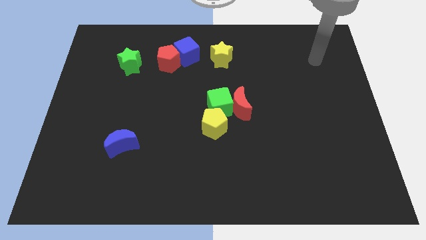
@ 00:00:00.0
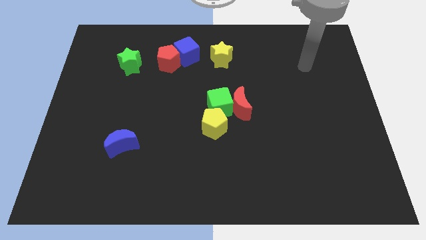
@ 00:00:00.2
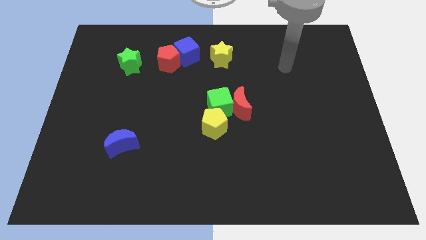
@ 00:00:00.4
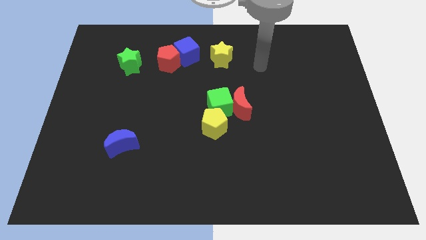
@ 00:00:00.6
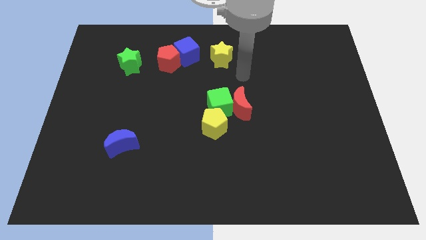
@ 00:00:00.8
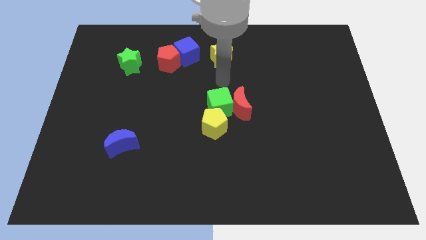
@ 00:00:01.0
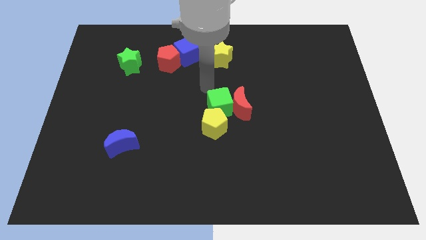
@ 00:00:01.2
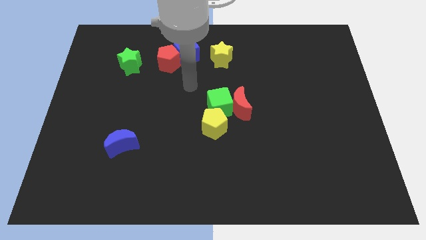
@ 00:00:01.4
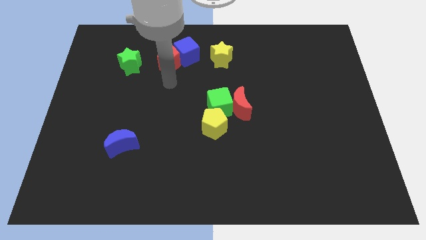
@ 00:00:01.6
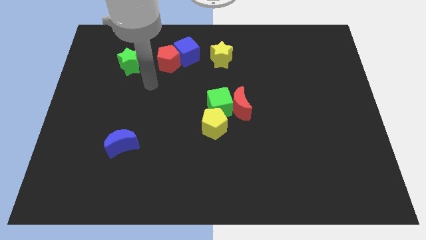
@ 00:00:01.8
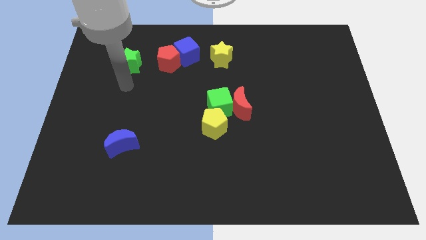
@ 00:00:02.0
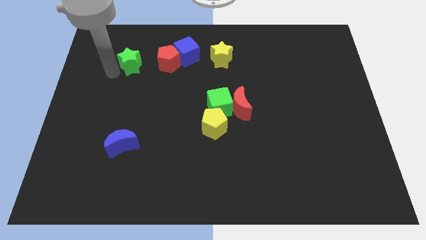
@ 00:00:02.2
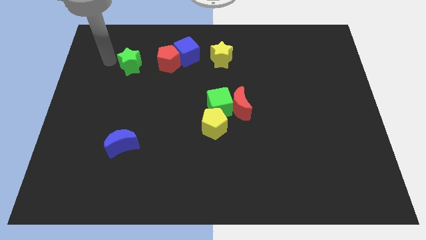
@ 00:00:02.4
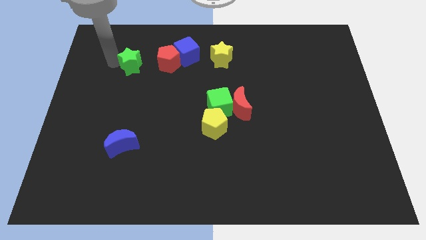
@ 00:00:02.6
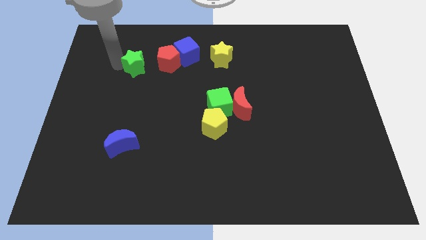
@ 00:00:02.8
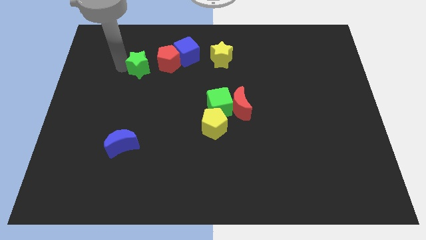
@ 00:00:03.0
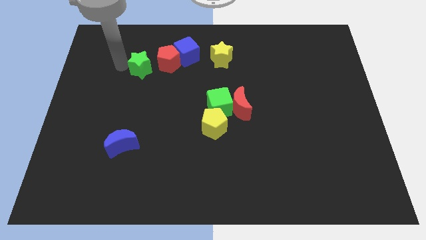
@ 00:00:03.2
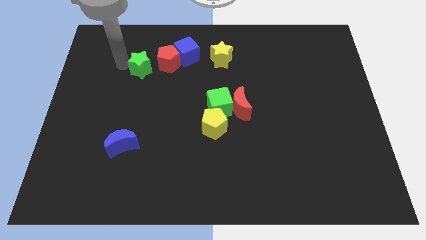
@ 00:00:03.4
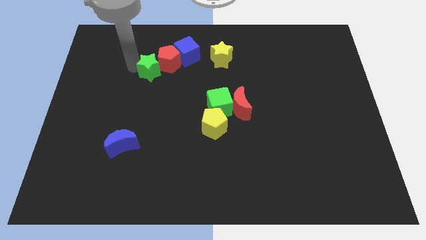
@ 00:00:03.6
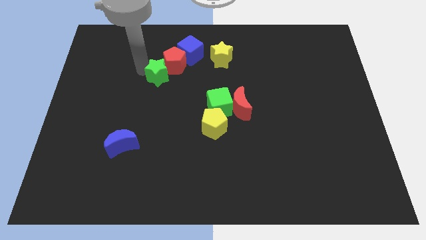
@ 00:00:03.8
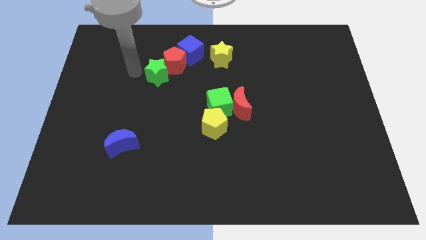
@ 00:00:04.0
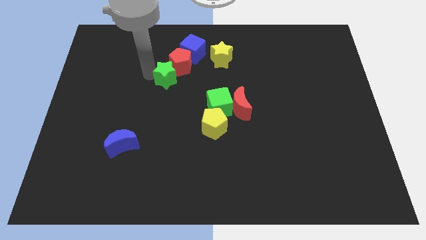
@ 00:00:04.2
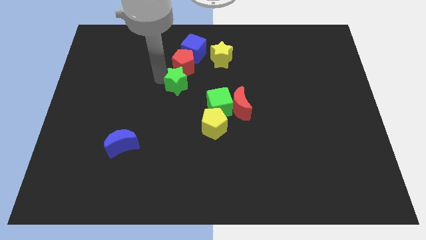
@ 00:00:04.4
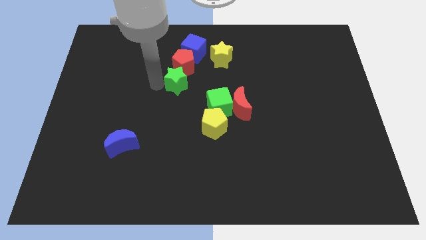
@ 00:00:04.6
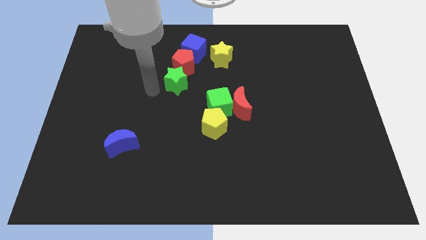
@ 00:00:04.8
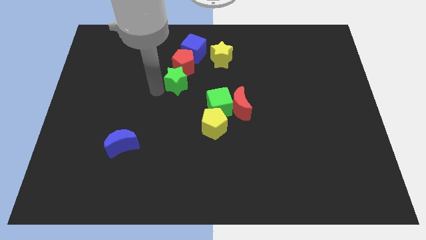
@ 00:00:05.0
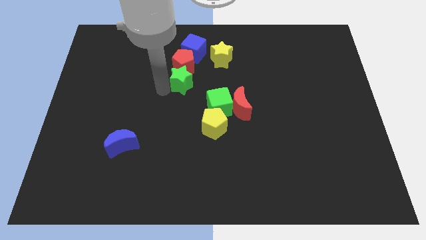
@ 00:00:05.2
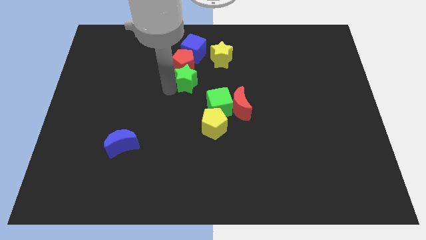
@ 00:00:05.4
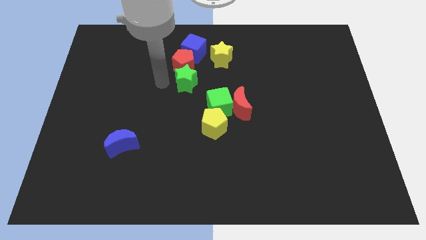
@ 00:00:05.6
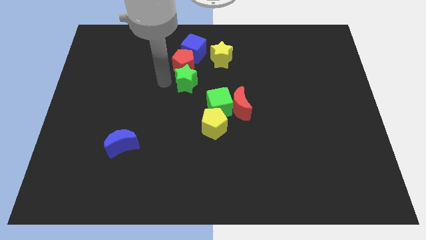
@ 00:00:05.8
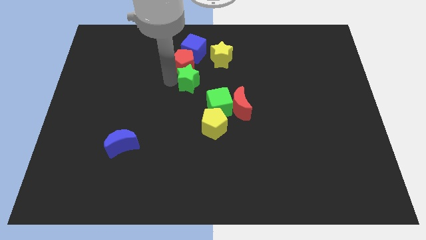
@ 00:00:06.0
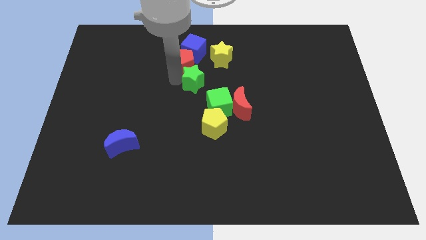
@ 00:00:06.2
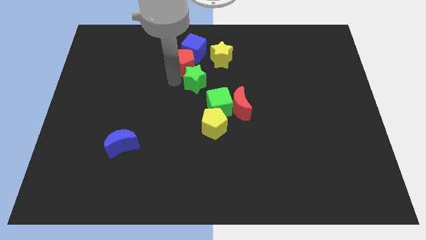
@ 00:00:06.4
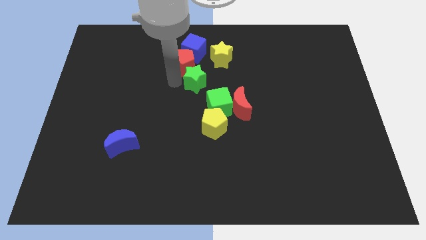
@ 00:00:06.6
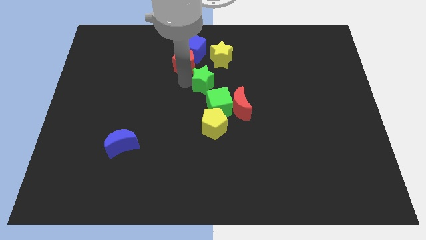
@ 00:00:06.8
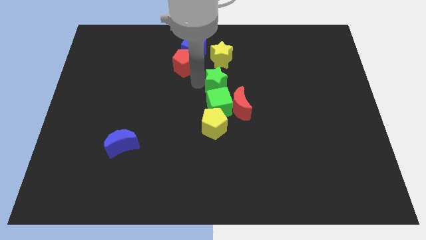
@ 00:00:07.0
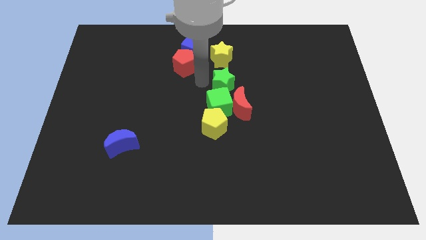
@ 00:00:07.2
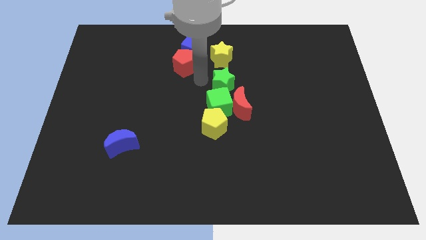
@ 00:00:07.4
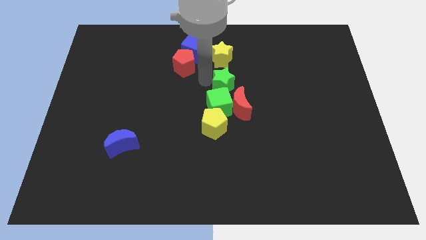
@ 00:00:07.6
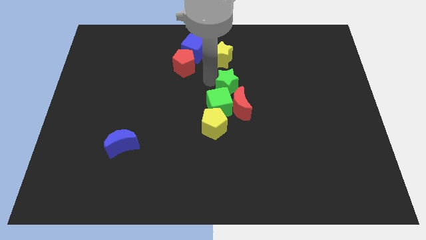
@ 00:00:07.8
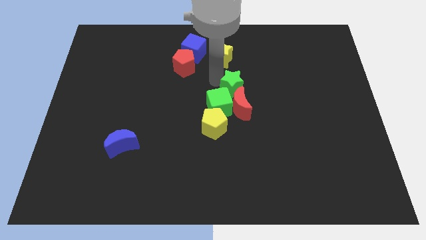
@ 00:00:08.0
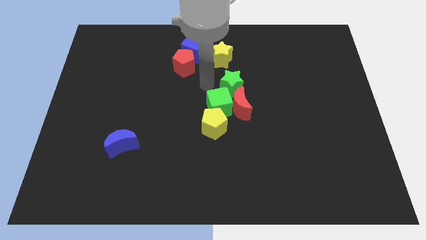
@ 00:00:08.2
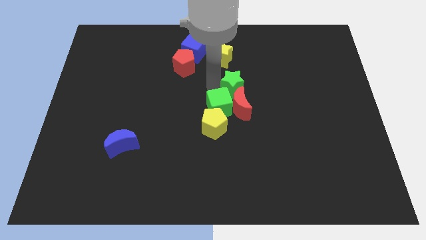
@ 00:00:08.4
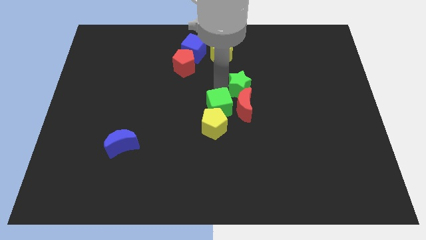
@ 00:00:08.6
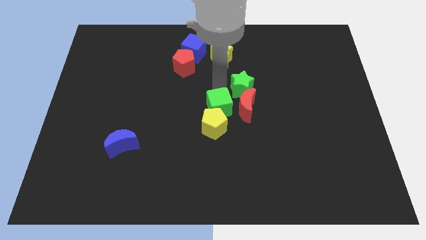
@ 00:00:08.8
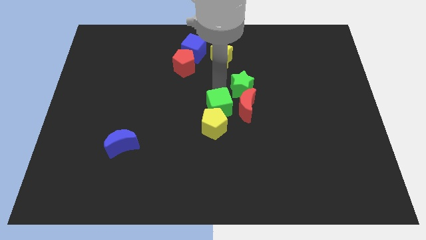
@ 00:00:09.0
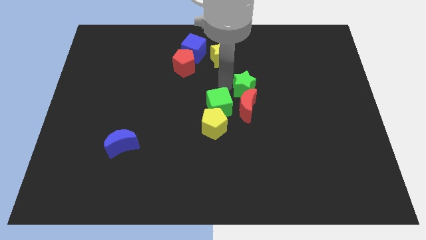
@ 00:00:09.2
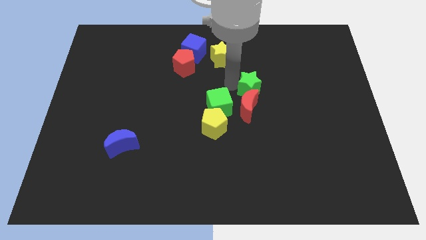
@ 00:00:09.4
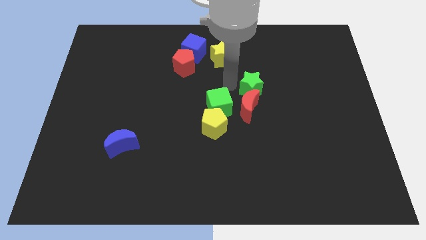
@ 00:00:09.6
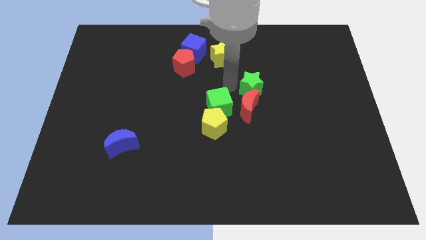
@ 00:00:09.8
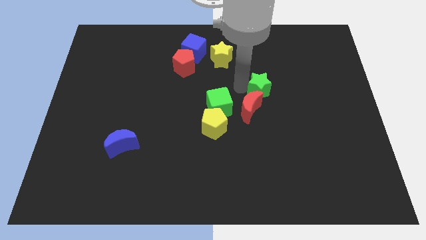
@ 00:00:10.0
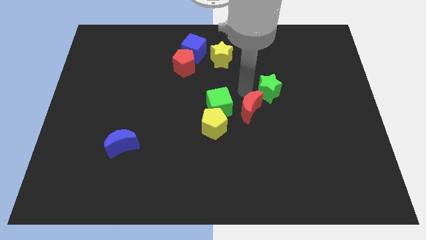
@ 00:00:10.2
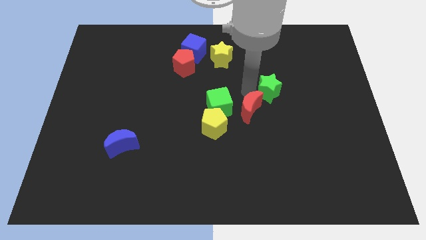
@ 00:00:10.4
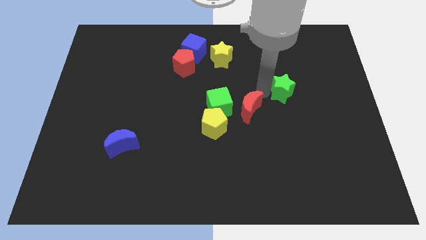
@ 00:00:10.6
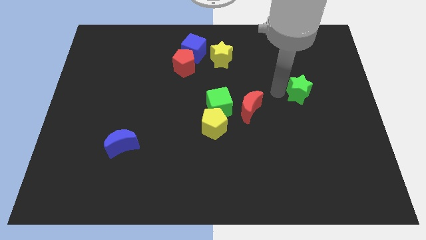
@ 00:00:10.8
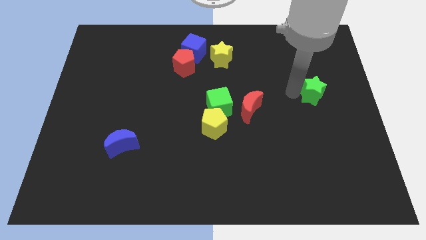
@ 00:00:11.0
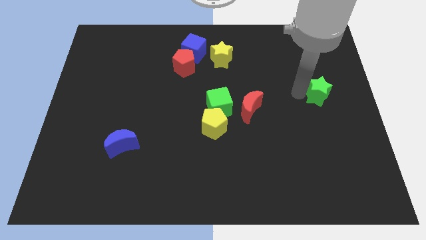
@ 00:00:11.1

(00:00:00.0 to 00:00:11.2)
move the green star to the right side
